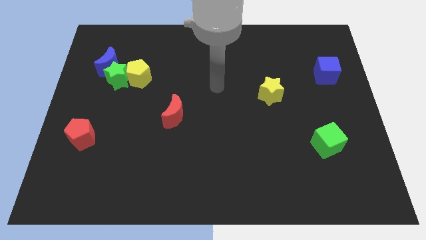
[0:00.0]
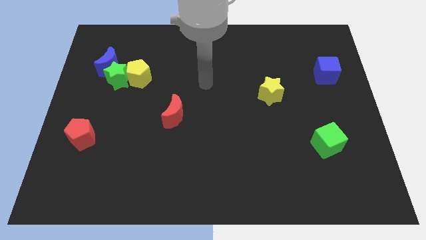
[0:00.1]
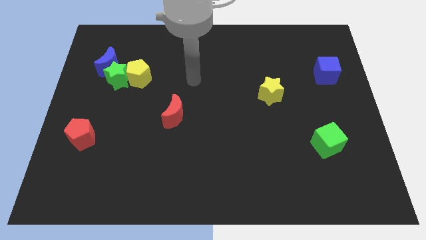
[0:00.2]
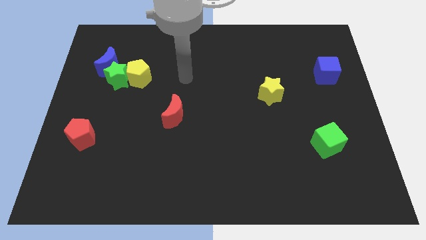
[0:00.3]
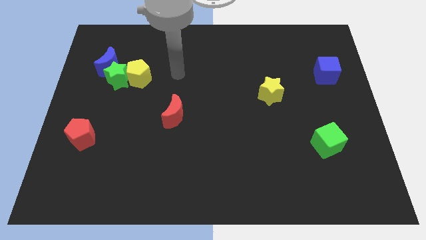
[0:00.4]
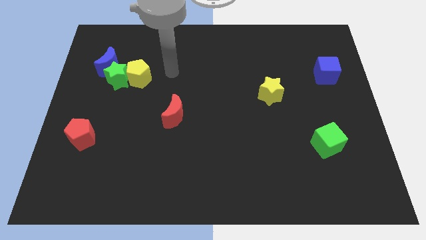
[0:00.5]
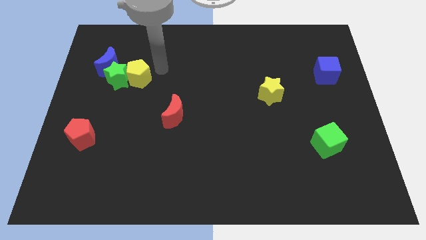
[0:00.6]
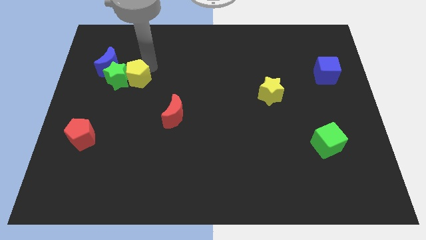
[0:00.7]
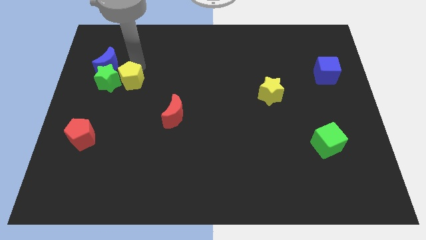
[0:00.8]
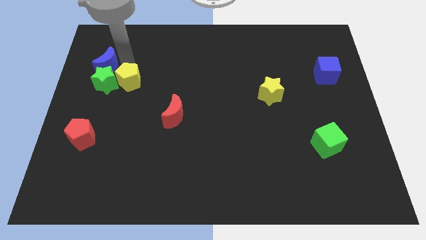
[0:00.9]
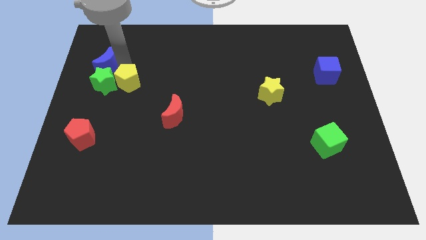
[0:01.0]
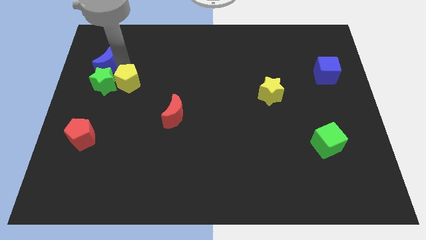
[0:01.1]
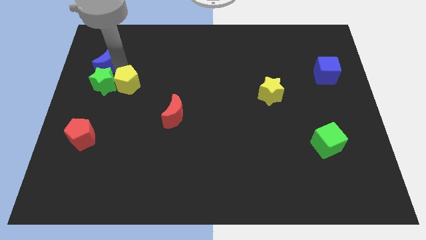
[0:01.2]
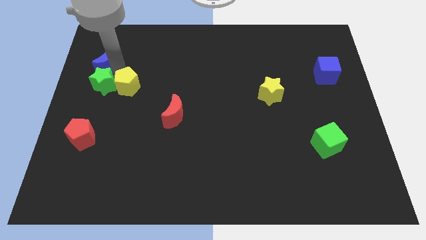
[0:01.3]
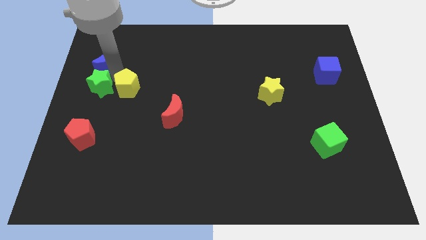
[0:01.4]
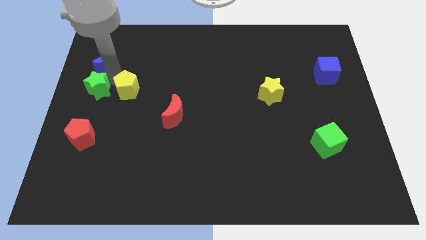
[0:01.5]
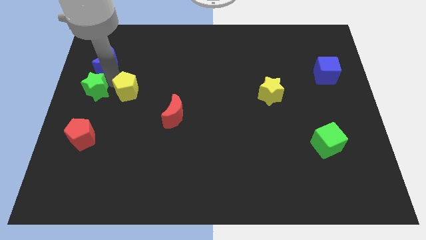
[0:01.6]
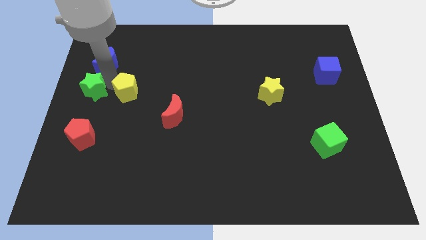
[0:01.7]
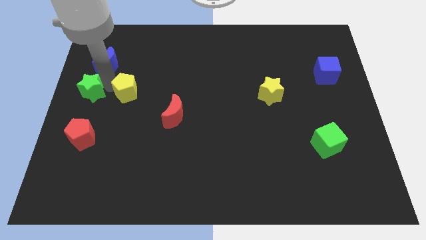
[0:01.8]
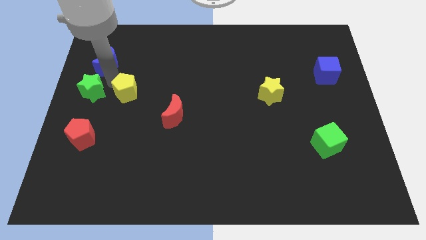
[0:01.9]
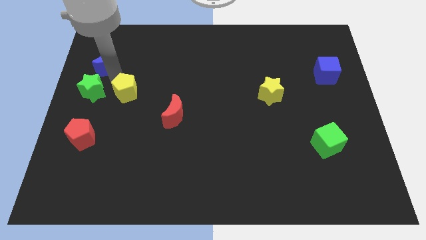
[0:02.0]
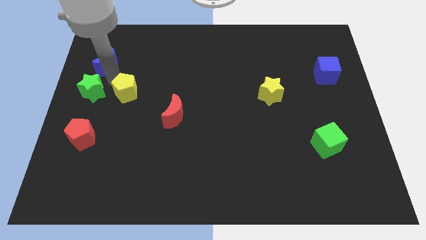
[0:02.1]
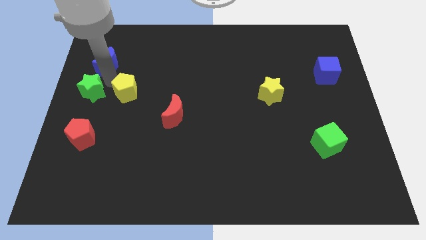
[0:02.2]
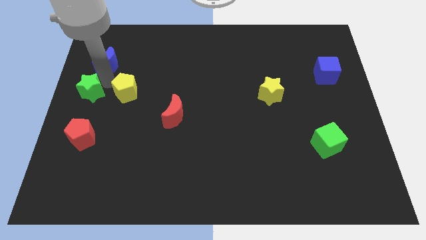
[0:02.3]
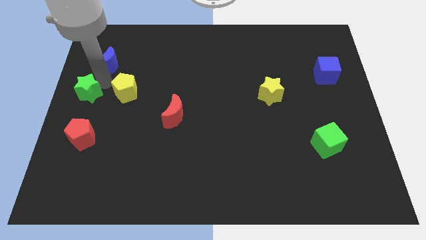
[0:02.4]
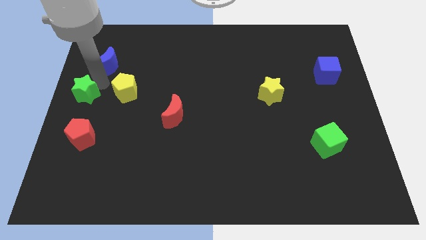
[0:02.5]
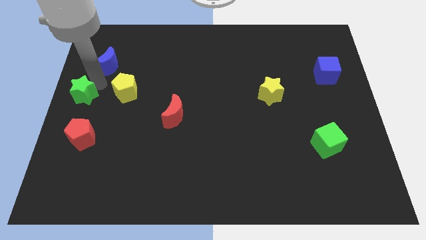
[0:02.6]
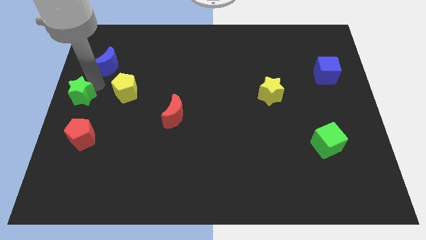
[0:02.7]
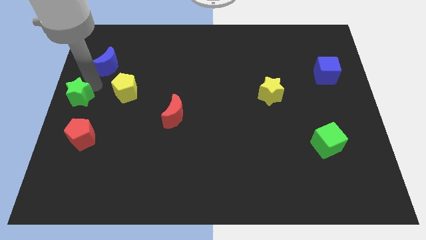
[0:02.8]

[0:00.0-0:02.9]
pull the green star apart from the yellow pentagon and blue moon

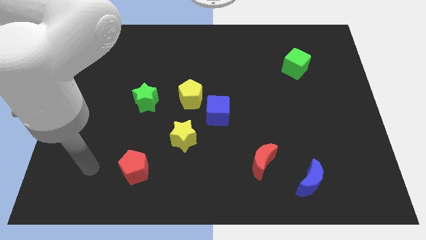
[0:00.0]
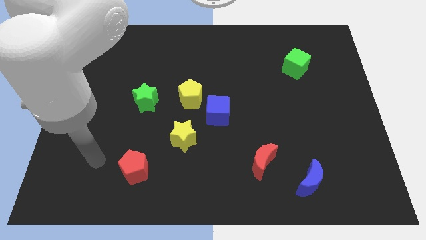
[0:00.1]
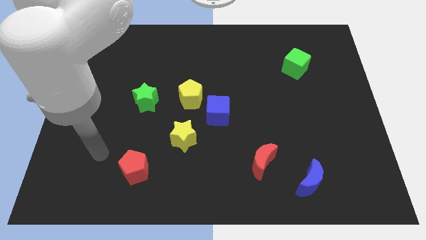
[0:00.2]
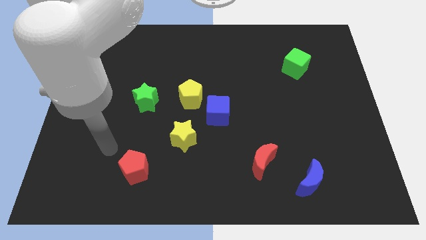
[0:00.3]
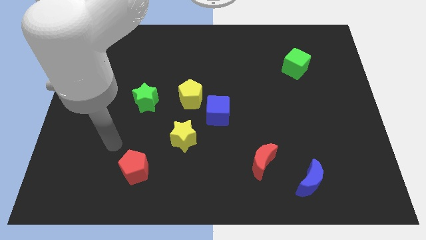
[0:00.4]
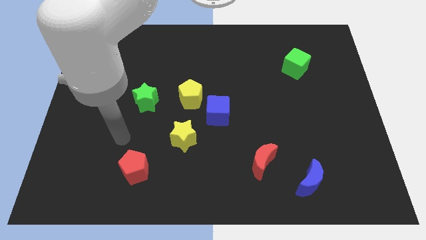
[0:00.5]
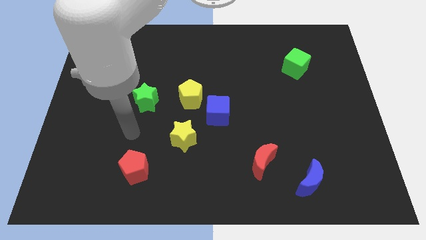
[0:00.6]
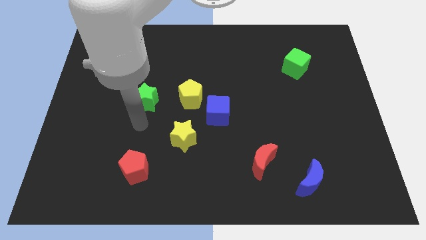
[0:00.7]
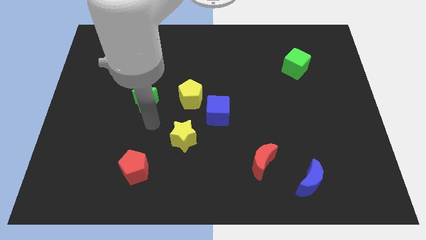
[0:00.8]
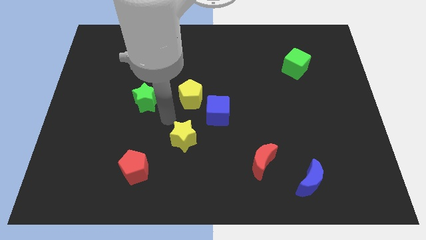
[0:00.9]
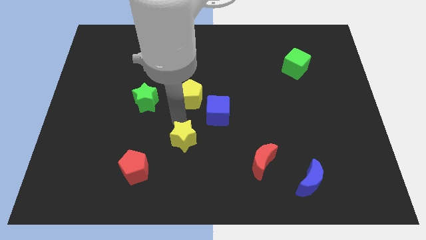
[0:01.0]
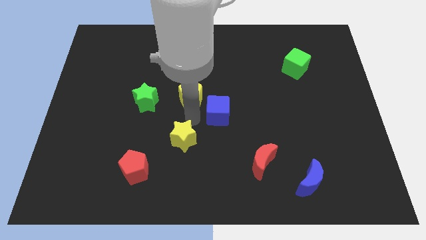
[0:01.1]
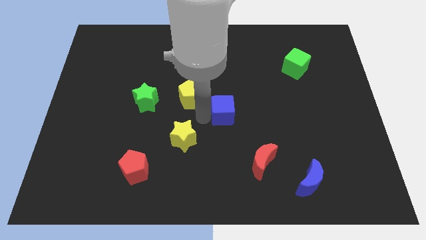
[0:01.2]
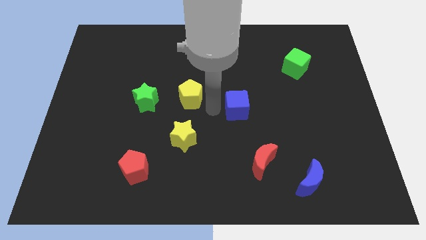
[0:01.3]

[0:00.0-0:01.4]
move the yellow pentagon away from the blue cube

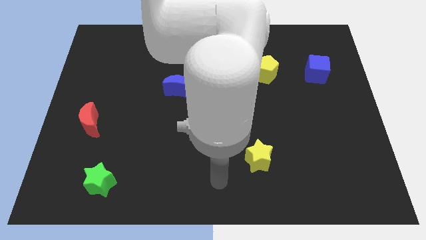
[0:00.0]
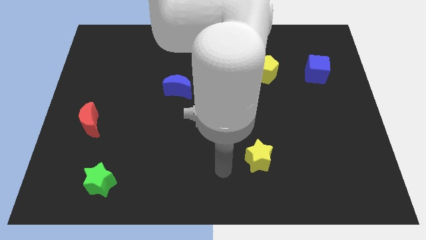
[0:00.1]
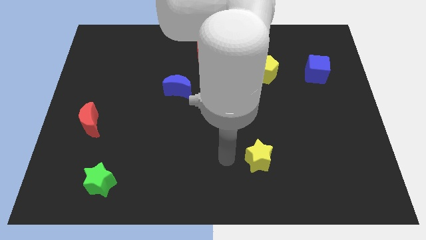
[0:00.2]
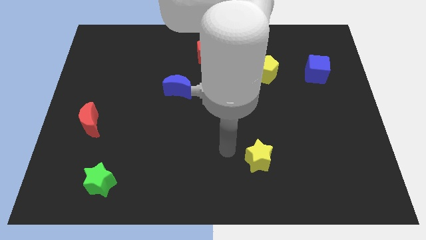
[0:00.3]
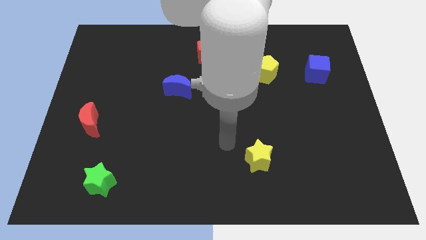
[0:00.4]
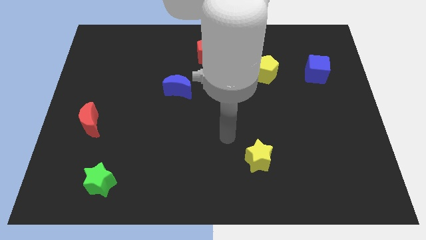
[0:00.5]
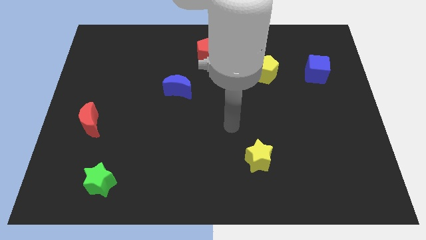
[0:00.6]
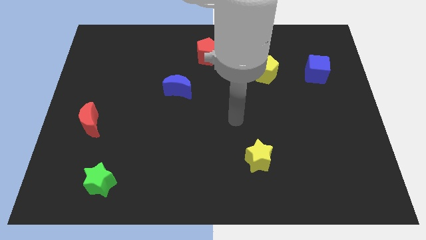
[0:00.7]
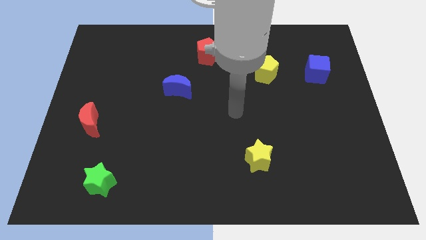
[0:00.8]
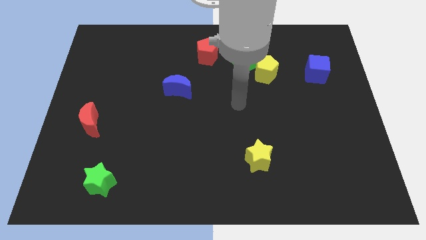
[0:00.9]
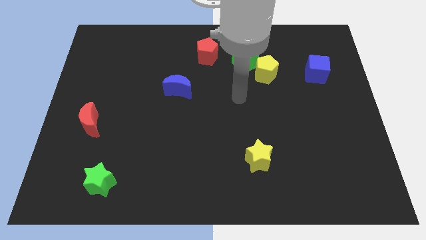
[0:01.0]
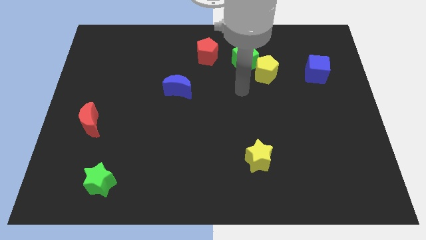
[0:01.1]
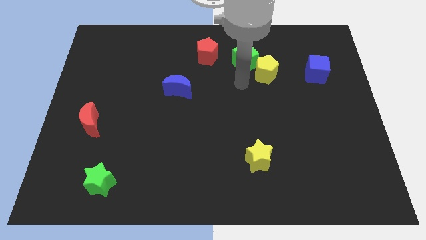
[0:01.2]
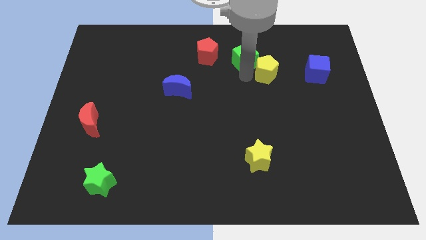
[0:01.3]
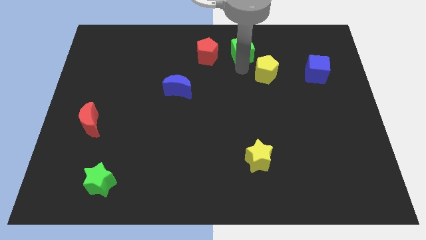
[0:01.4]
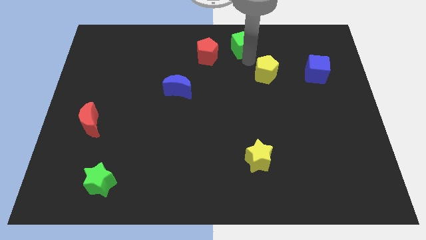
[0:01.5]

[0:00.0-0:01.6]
move the yellow pentagon away from the green cube

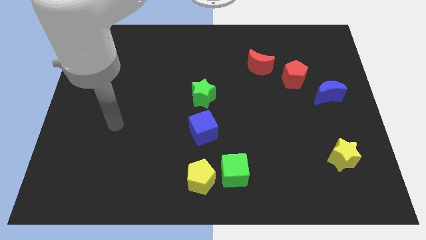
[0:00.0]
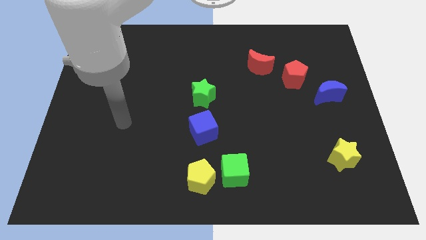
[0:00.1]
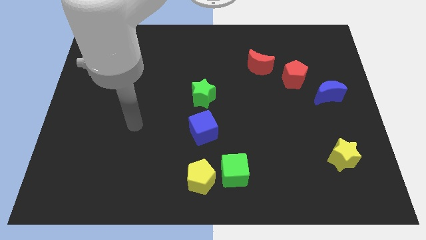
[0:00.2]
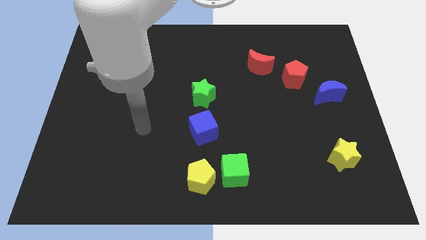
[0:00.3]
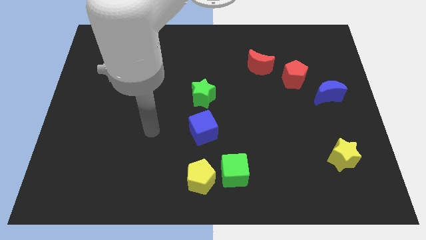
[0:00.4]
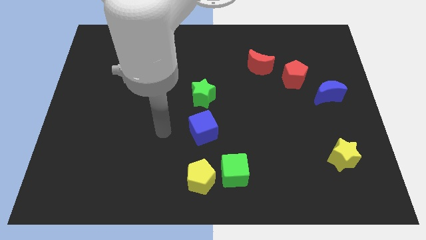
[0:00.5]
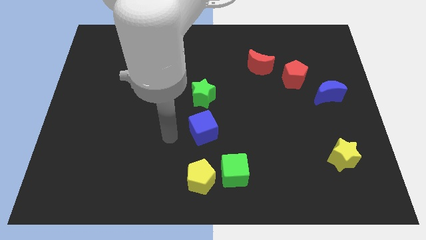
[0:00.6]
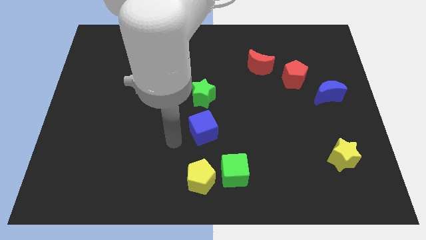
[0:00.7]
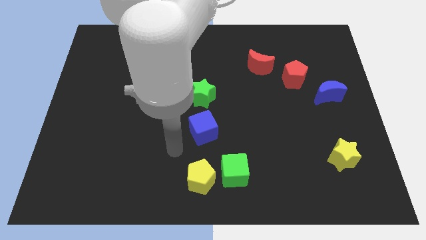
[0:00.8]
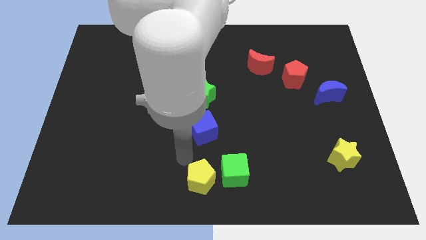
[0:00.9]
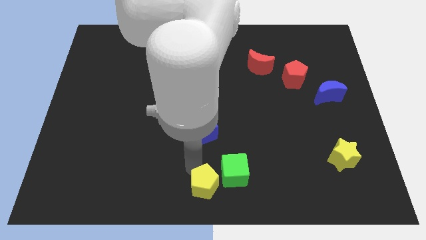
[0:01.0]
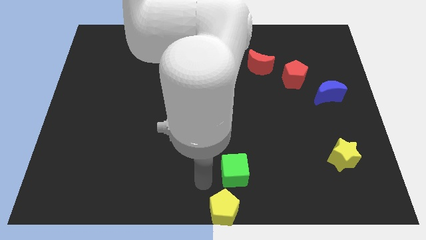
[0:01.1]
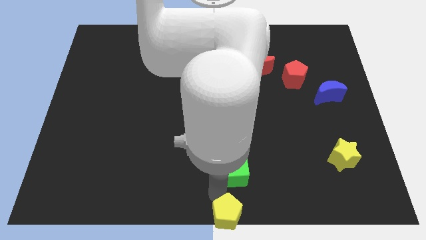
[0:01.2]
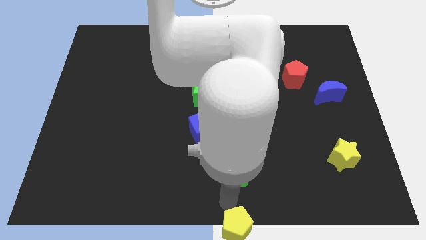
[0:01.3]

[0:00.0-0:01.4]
pull the green cube apart from the yellow pentagon

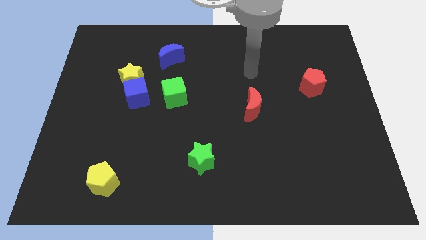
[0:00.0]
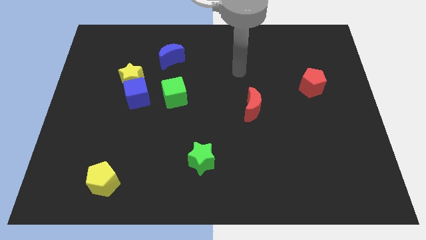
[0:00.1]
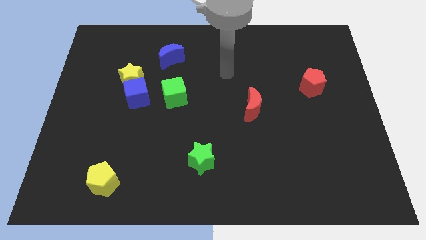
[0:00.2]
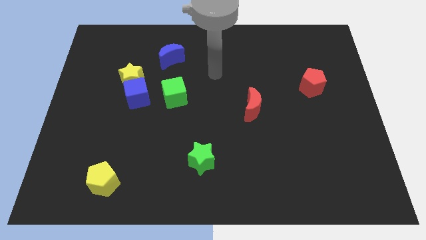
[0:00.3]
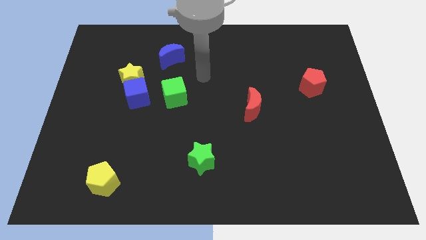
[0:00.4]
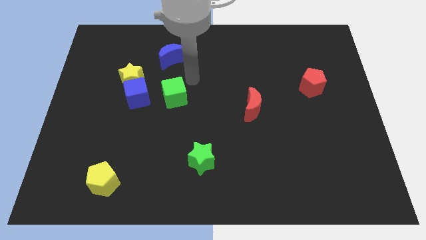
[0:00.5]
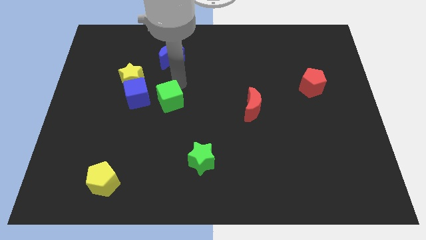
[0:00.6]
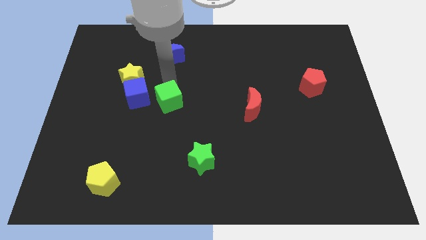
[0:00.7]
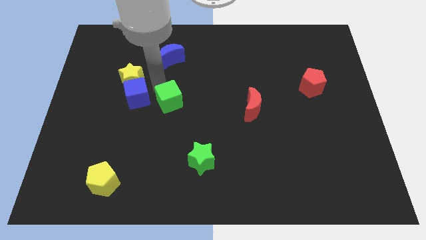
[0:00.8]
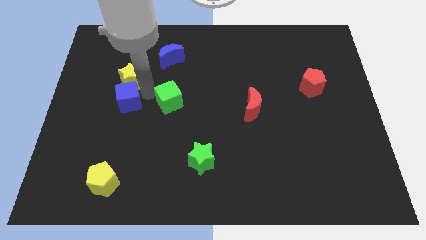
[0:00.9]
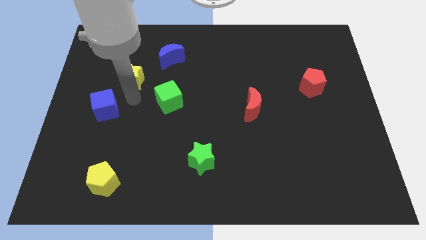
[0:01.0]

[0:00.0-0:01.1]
pull the yellow star apart from the blue cube

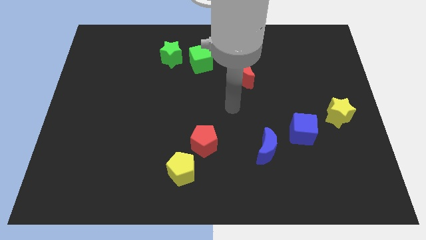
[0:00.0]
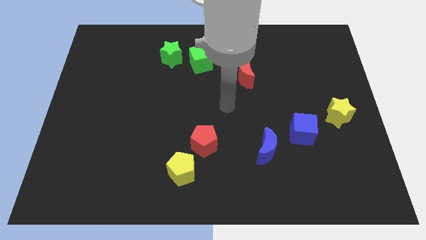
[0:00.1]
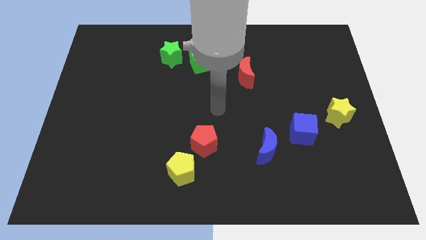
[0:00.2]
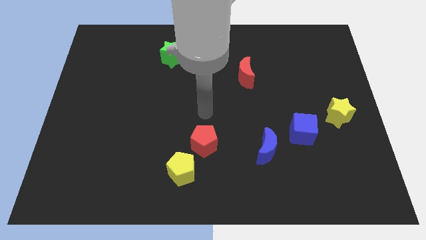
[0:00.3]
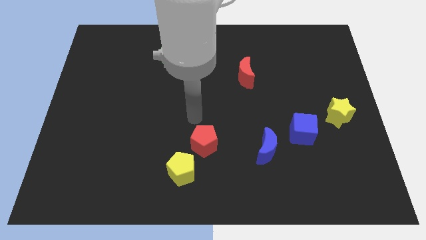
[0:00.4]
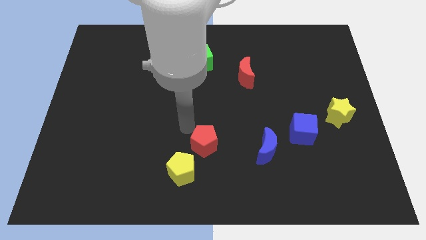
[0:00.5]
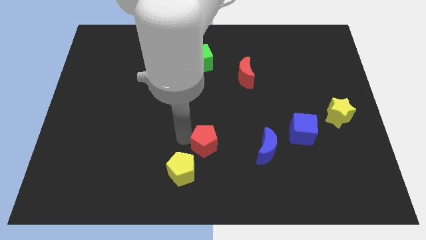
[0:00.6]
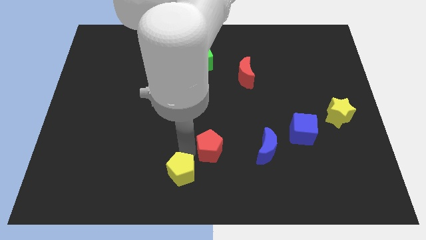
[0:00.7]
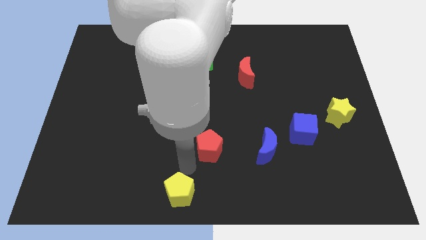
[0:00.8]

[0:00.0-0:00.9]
separate the red pentagon from the yellow pentagon
